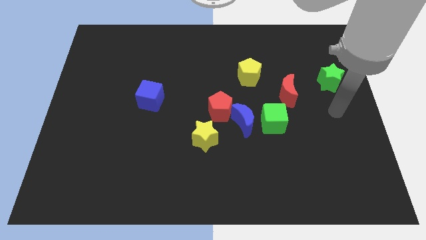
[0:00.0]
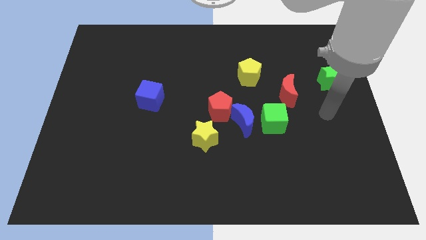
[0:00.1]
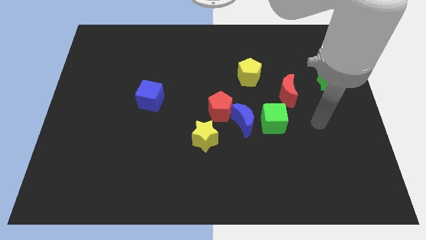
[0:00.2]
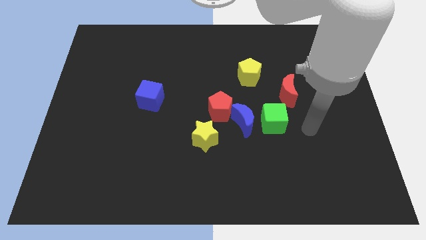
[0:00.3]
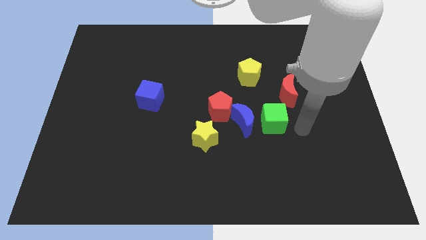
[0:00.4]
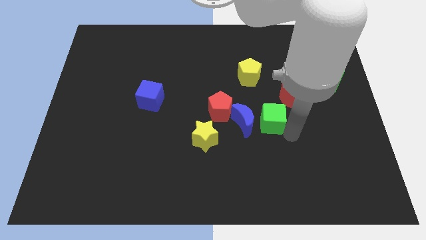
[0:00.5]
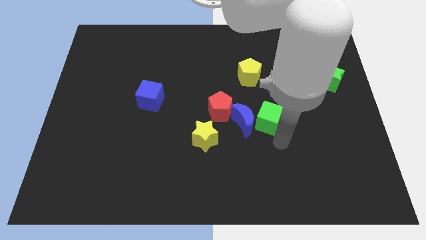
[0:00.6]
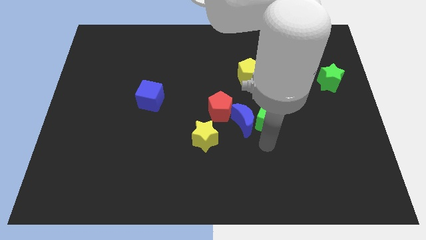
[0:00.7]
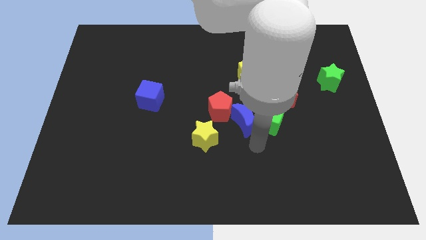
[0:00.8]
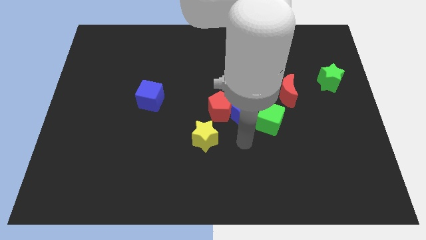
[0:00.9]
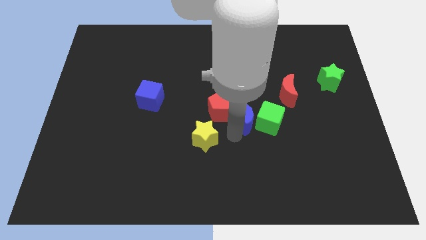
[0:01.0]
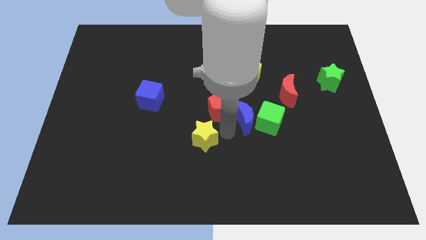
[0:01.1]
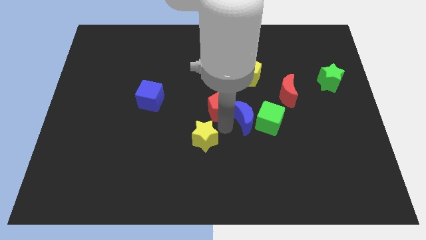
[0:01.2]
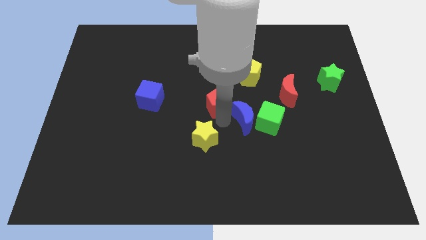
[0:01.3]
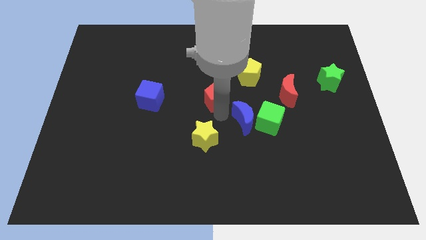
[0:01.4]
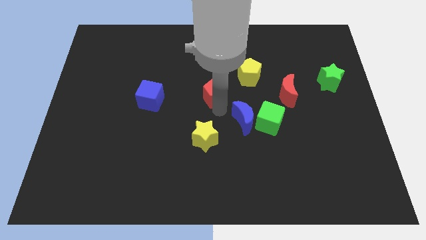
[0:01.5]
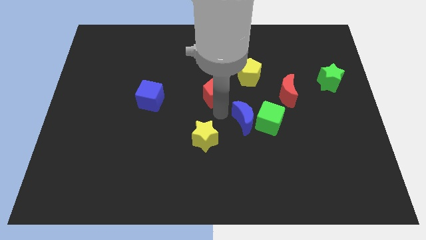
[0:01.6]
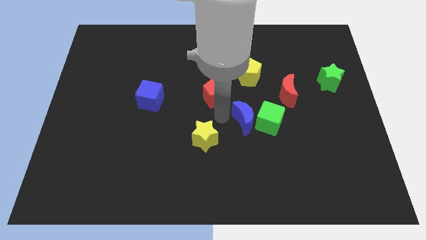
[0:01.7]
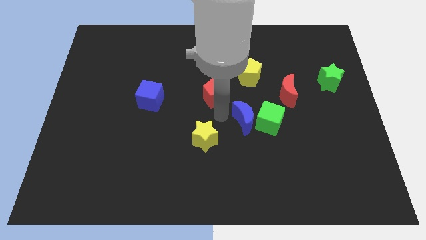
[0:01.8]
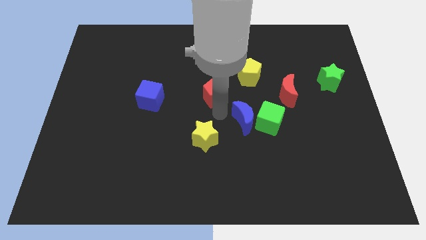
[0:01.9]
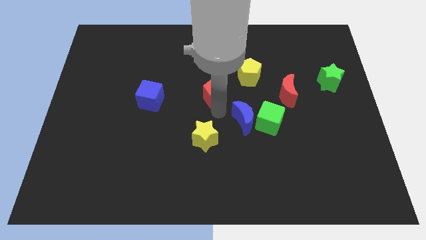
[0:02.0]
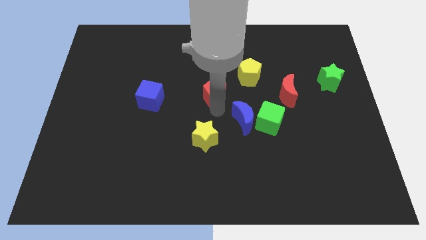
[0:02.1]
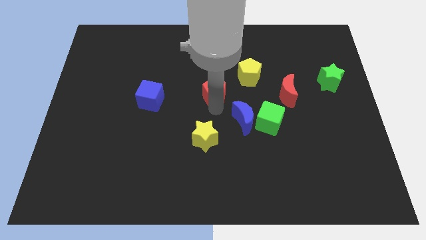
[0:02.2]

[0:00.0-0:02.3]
separate the red pentagon from the blue moon and yellow star

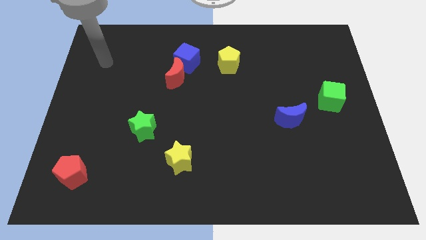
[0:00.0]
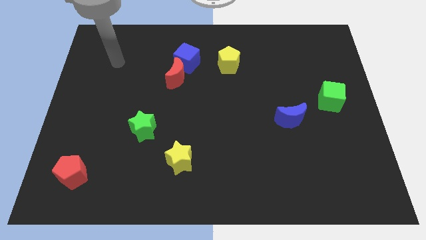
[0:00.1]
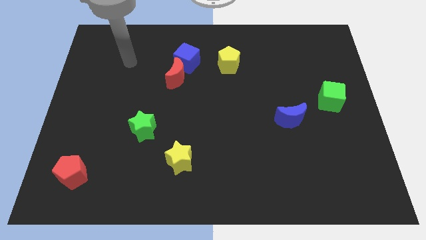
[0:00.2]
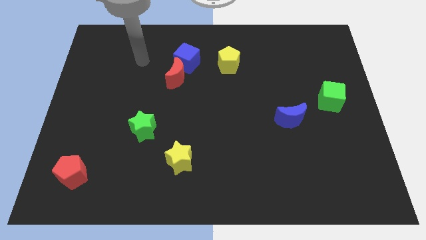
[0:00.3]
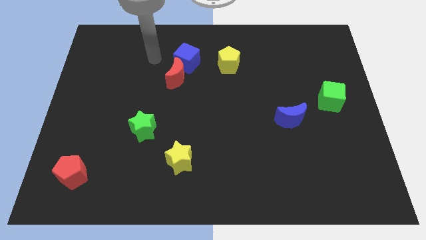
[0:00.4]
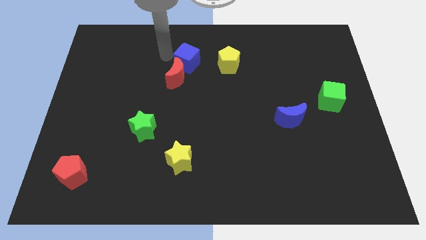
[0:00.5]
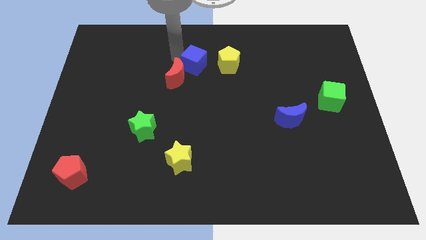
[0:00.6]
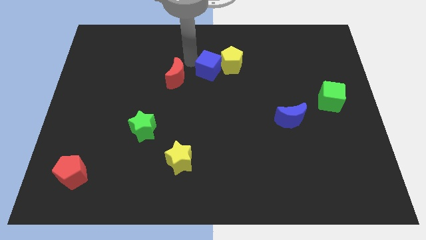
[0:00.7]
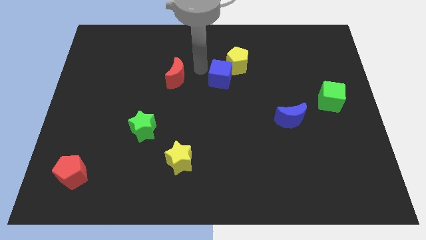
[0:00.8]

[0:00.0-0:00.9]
pull the red moon apart from the blue cube

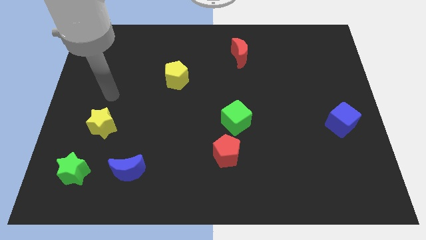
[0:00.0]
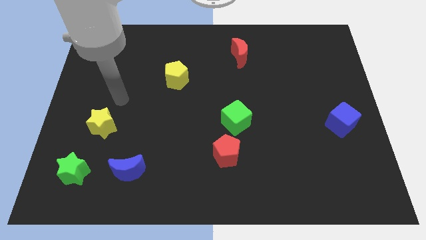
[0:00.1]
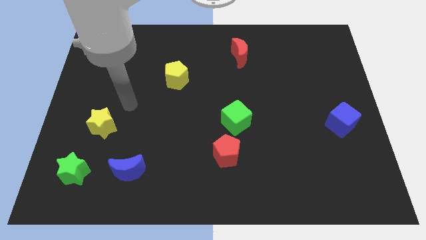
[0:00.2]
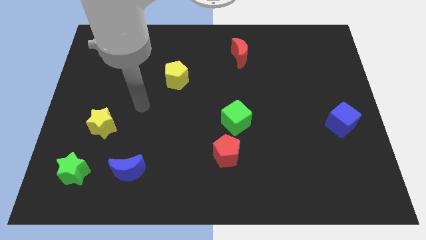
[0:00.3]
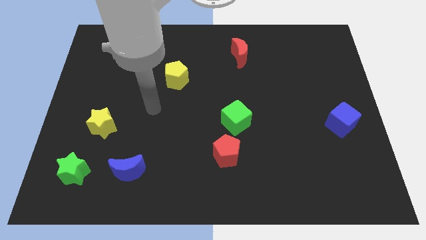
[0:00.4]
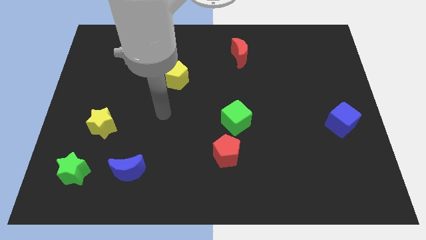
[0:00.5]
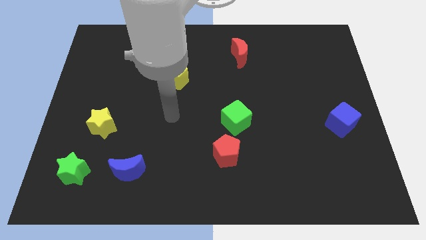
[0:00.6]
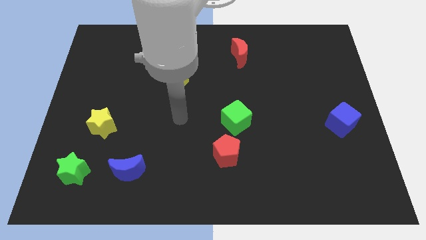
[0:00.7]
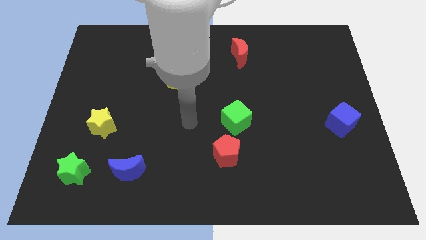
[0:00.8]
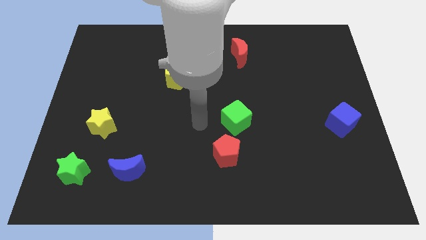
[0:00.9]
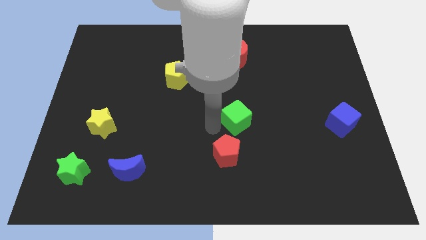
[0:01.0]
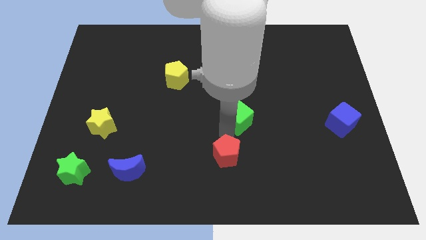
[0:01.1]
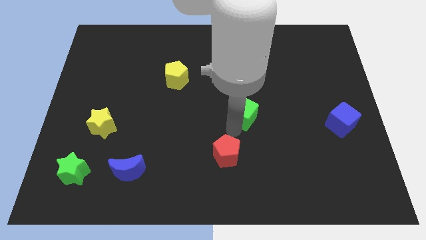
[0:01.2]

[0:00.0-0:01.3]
separate the red pentagon from the green cube

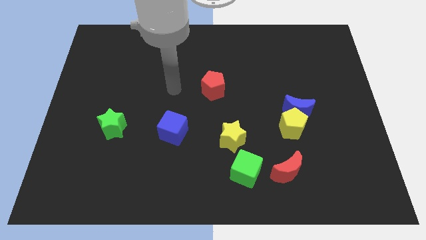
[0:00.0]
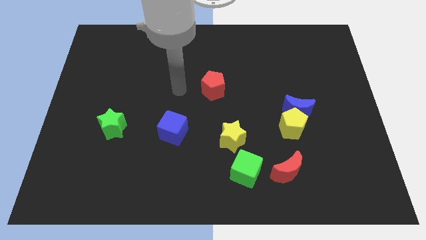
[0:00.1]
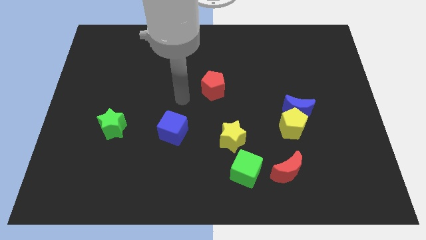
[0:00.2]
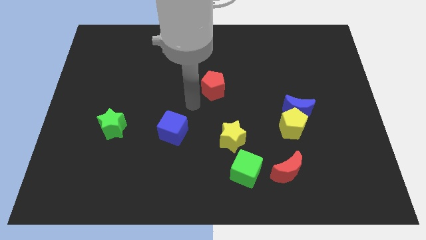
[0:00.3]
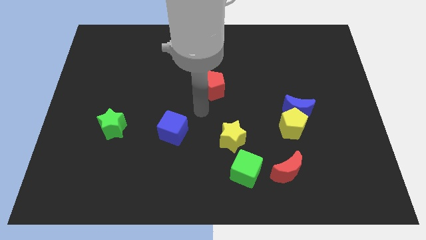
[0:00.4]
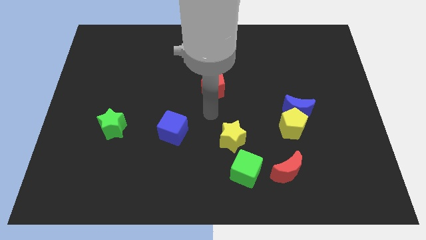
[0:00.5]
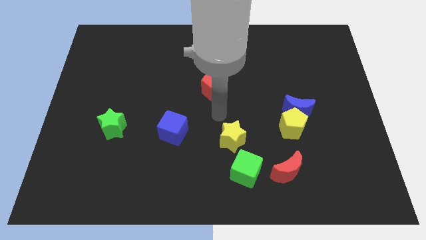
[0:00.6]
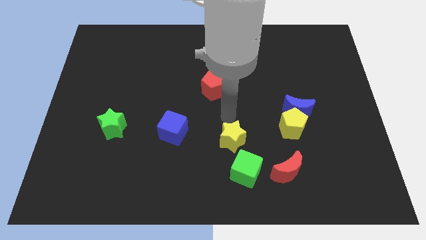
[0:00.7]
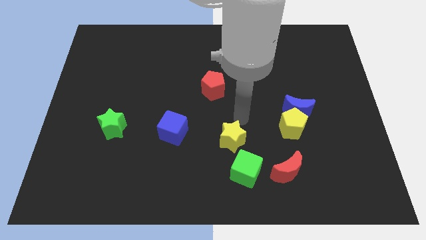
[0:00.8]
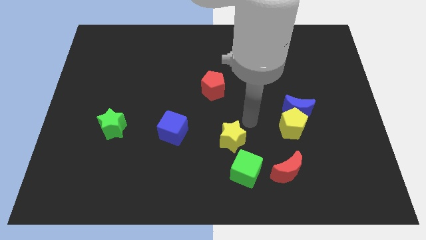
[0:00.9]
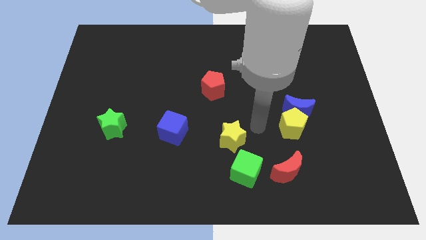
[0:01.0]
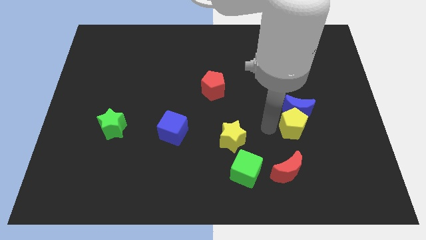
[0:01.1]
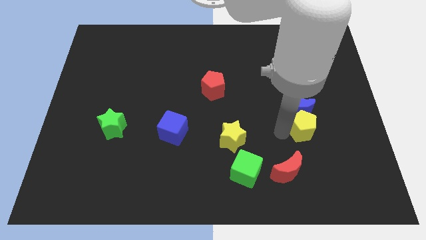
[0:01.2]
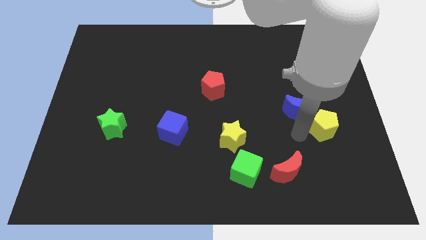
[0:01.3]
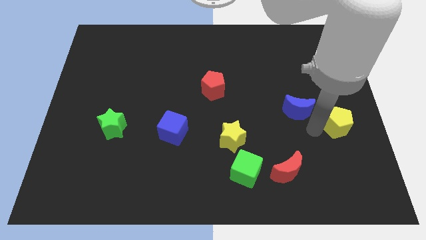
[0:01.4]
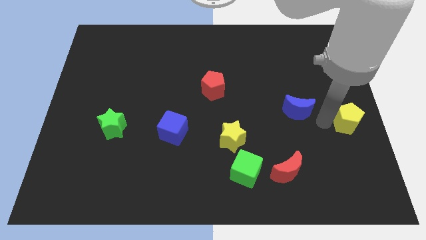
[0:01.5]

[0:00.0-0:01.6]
separate the blue moon from the yellow pentagon

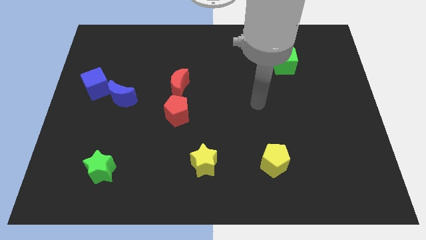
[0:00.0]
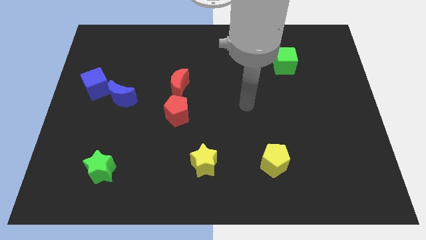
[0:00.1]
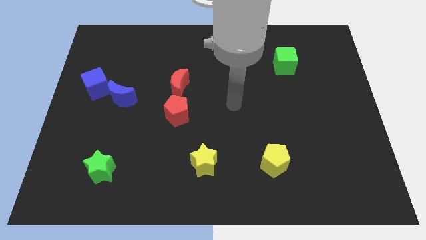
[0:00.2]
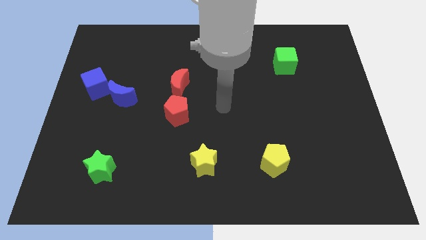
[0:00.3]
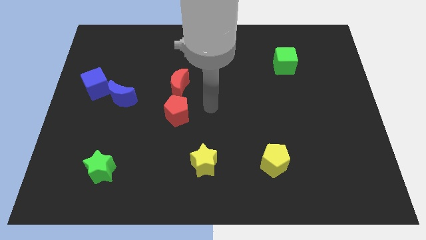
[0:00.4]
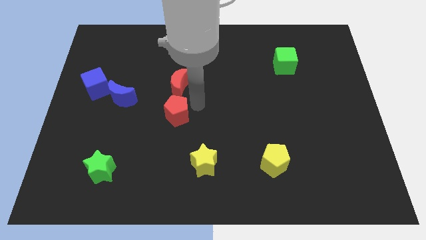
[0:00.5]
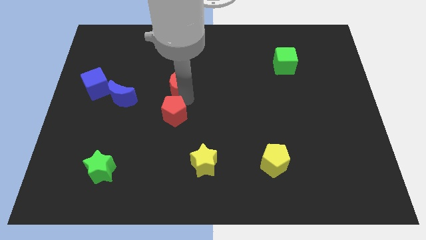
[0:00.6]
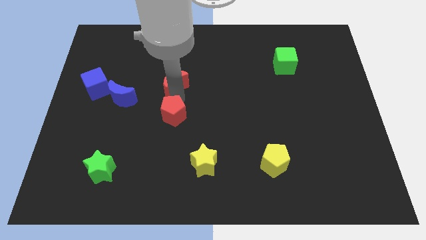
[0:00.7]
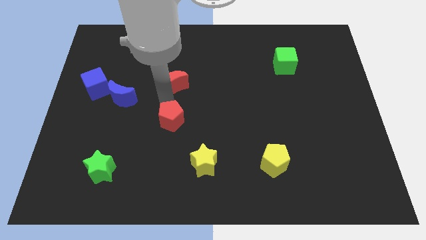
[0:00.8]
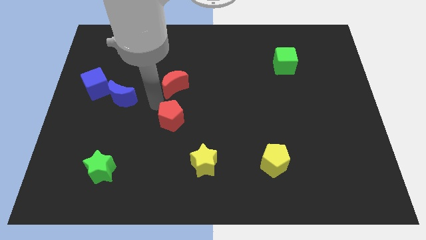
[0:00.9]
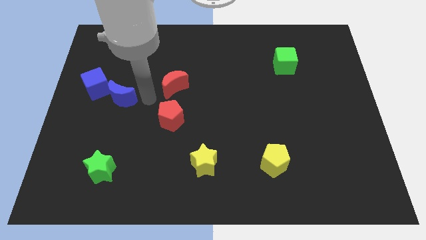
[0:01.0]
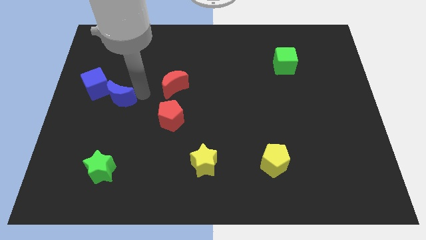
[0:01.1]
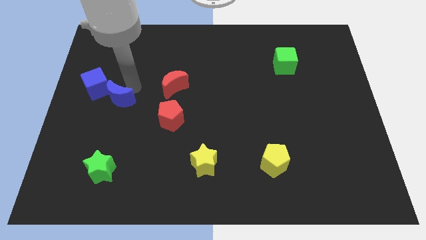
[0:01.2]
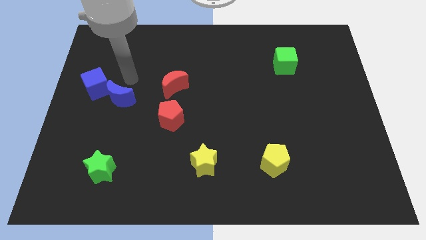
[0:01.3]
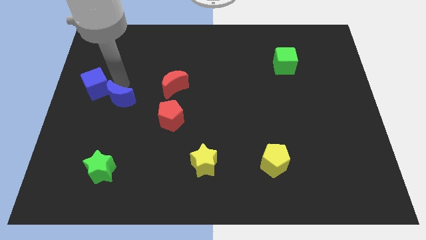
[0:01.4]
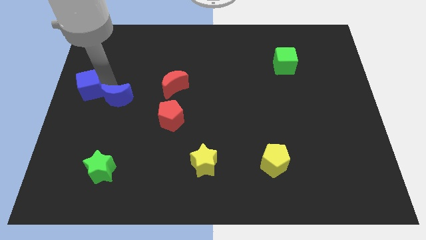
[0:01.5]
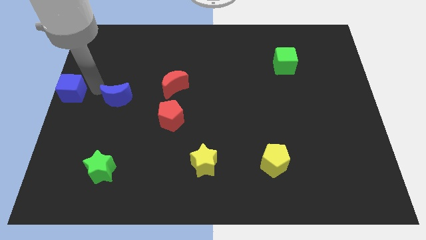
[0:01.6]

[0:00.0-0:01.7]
separate the blue moon from the blue cube

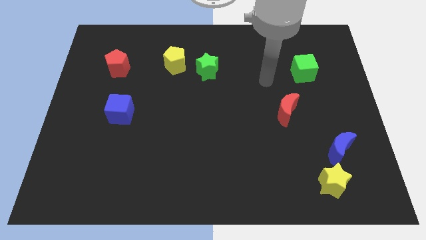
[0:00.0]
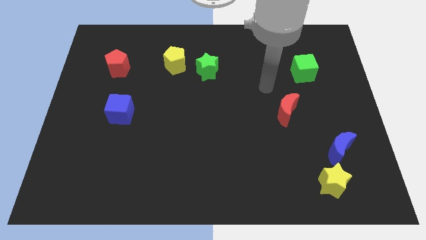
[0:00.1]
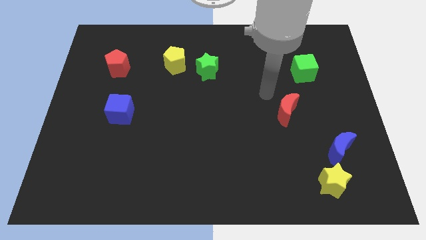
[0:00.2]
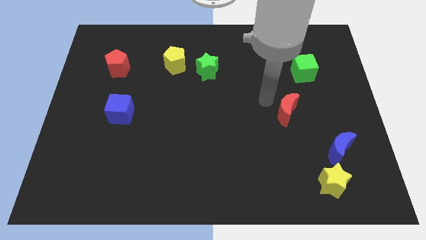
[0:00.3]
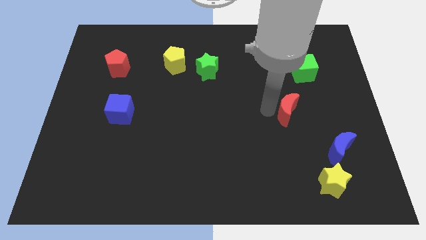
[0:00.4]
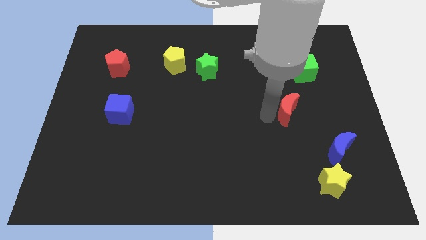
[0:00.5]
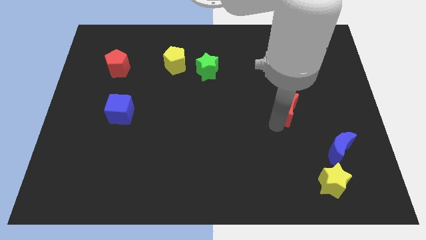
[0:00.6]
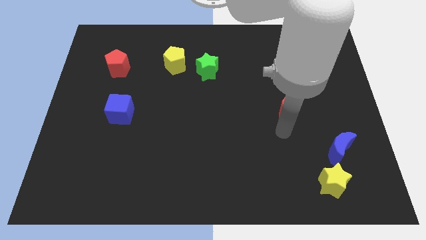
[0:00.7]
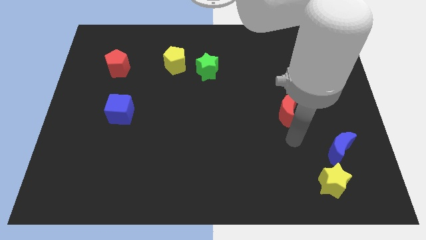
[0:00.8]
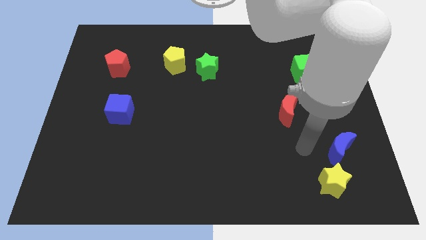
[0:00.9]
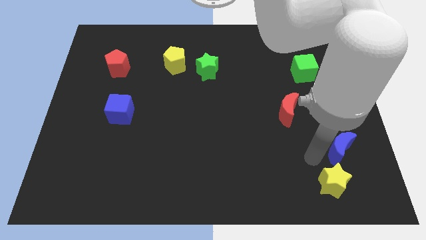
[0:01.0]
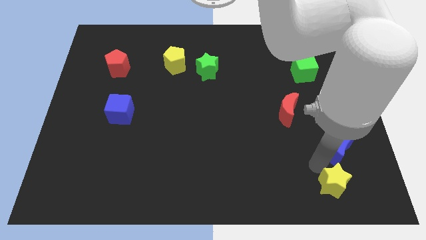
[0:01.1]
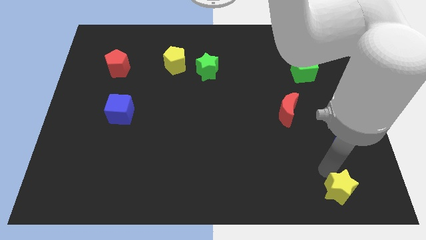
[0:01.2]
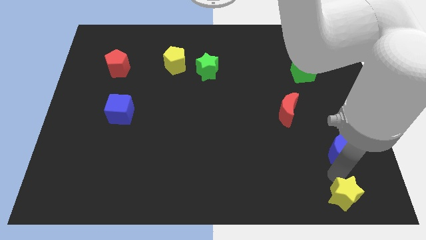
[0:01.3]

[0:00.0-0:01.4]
move the blue moon away from the yellow star

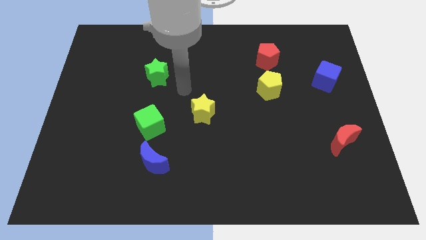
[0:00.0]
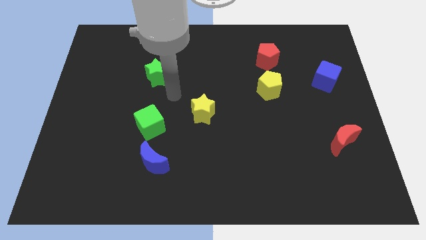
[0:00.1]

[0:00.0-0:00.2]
move the blue moon away from the green cube
